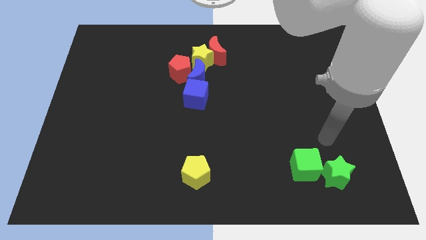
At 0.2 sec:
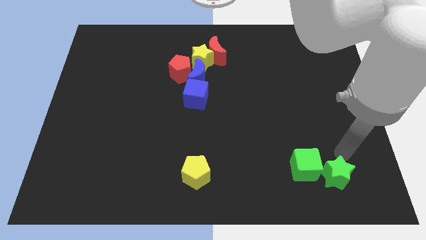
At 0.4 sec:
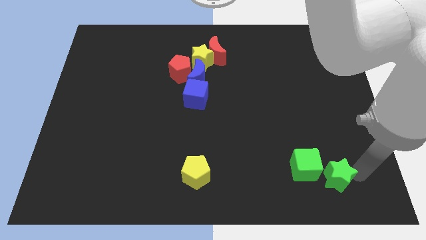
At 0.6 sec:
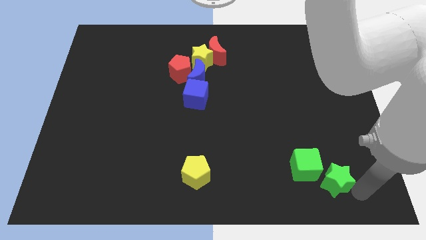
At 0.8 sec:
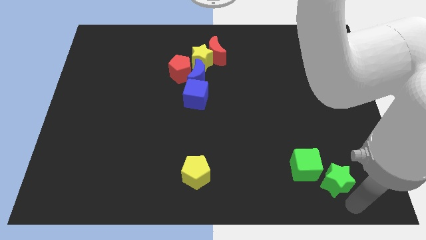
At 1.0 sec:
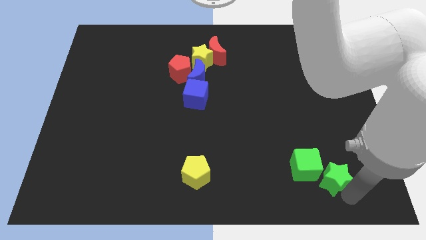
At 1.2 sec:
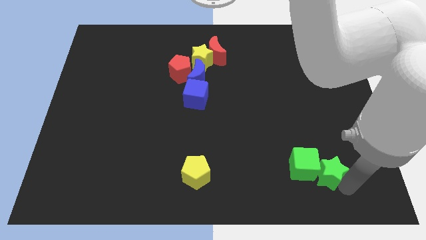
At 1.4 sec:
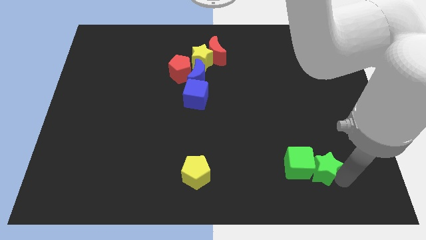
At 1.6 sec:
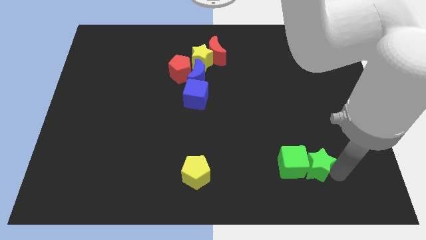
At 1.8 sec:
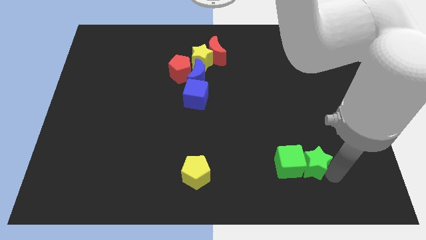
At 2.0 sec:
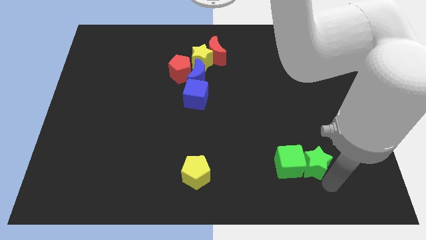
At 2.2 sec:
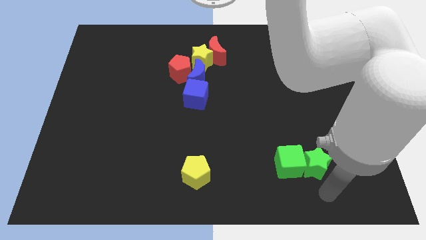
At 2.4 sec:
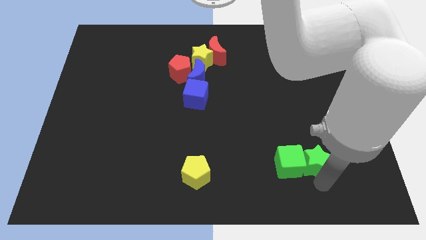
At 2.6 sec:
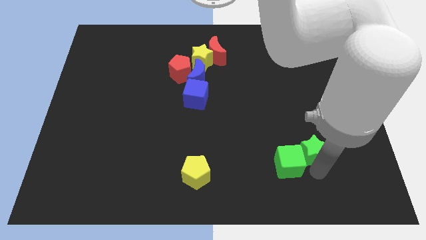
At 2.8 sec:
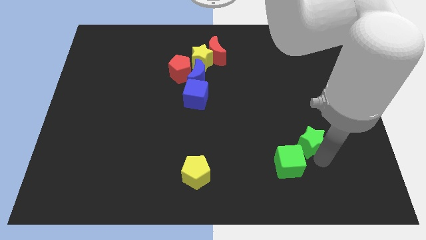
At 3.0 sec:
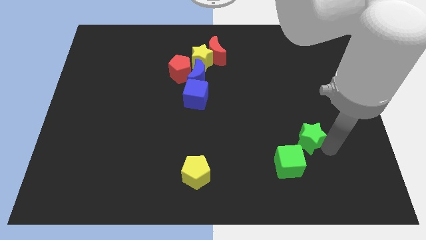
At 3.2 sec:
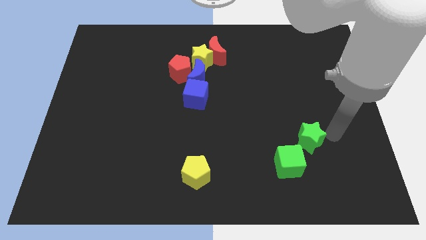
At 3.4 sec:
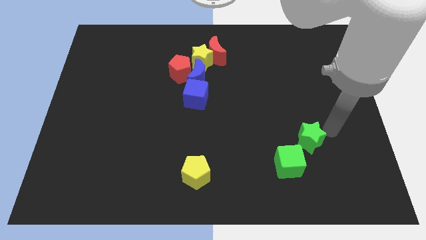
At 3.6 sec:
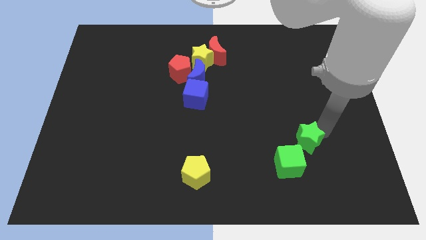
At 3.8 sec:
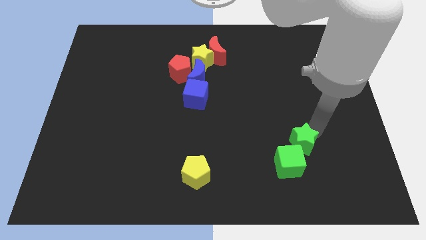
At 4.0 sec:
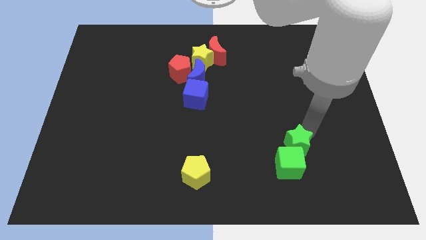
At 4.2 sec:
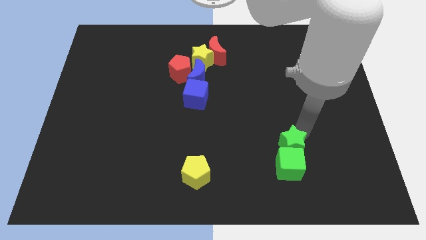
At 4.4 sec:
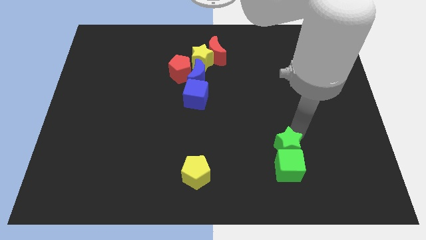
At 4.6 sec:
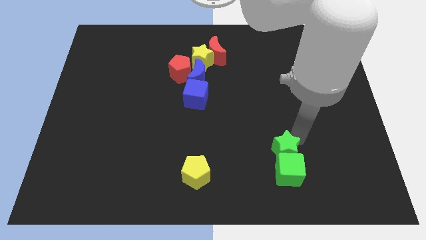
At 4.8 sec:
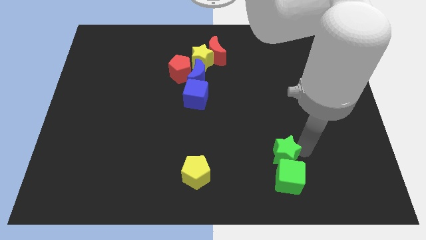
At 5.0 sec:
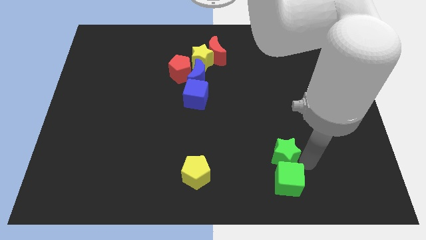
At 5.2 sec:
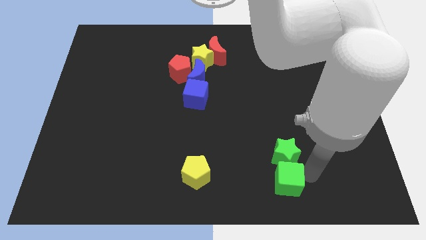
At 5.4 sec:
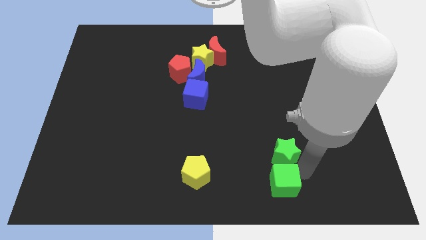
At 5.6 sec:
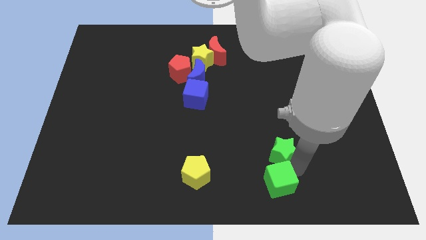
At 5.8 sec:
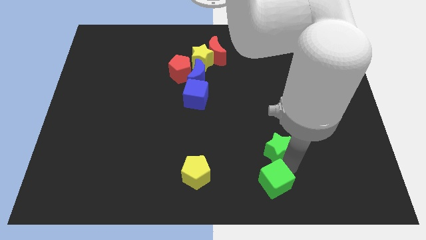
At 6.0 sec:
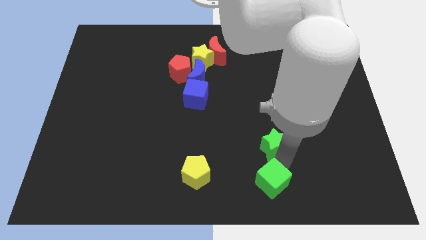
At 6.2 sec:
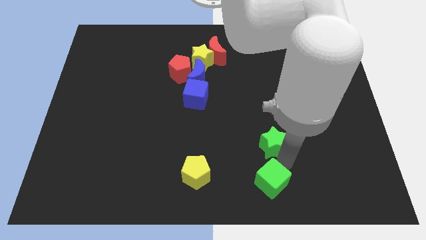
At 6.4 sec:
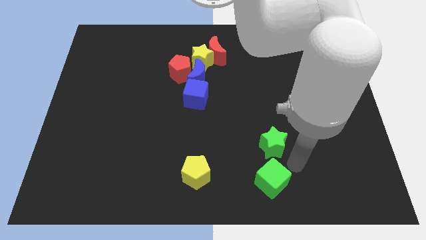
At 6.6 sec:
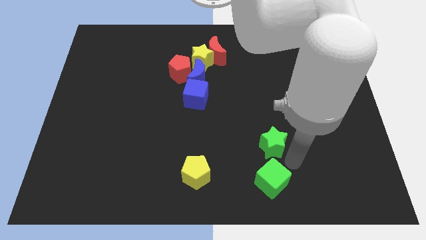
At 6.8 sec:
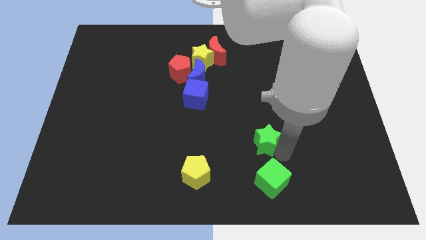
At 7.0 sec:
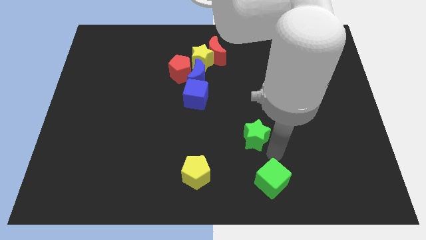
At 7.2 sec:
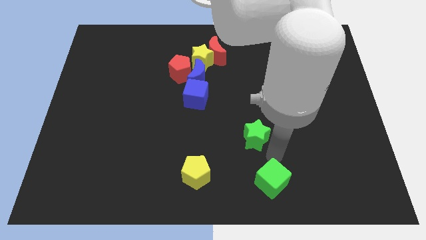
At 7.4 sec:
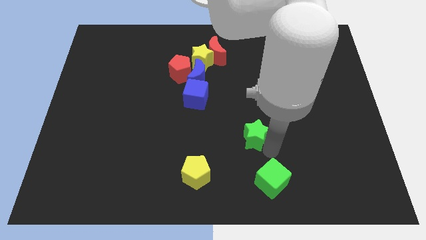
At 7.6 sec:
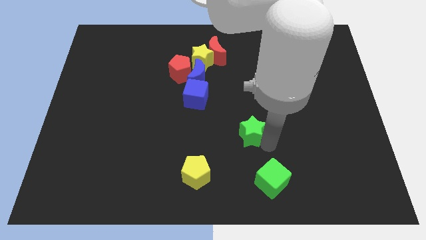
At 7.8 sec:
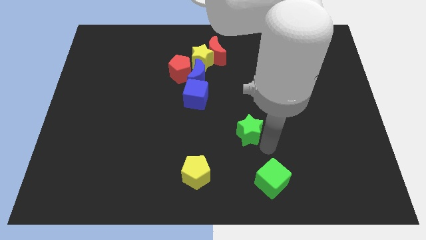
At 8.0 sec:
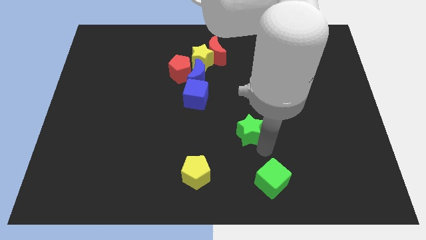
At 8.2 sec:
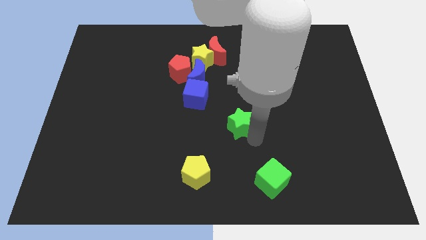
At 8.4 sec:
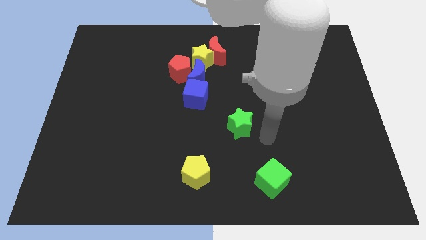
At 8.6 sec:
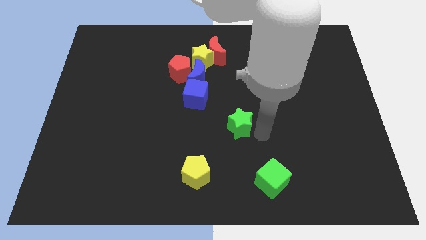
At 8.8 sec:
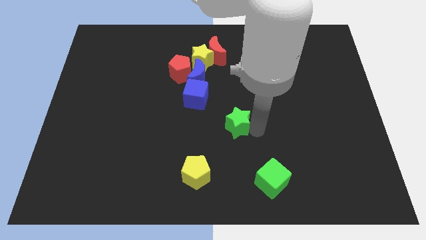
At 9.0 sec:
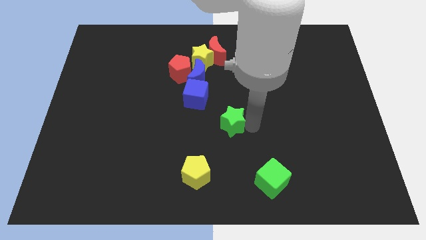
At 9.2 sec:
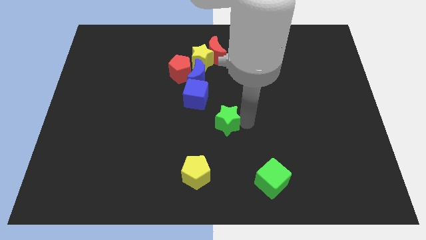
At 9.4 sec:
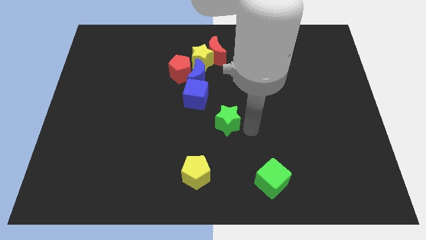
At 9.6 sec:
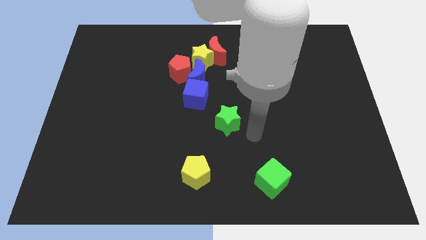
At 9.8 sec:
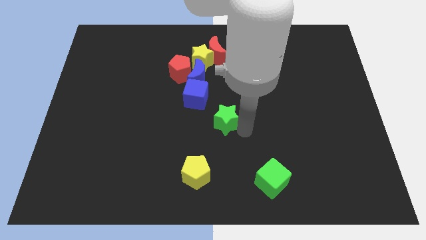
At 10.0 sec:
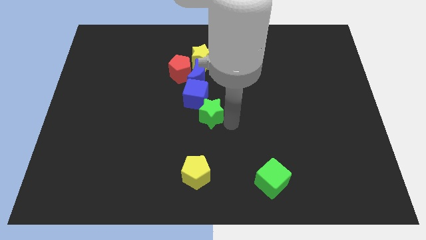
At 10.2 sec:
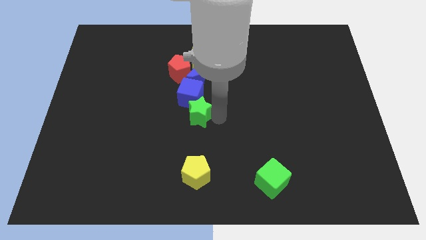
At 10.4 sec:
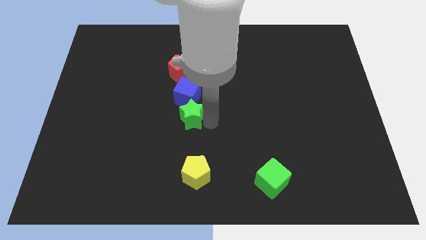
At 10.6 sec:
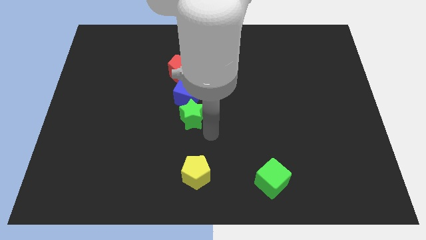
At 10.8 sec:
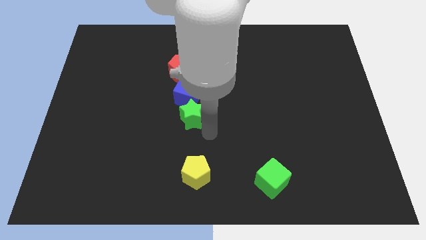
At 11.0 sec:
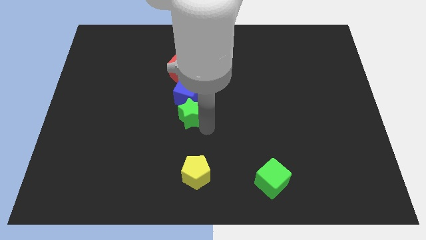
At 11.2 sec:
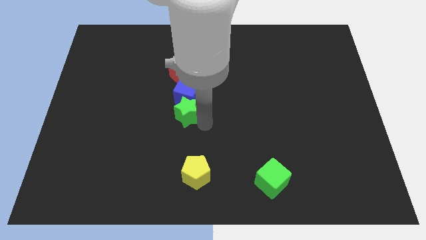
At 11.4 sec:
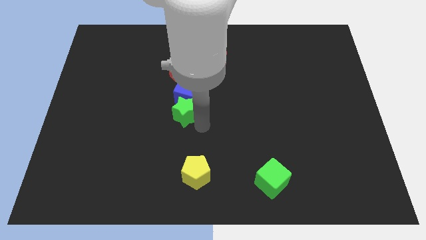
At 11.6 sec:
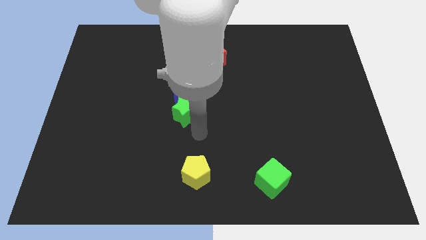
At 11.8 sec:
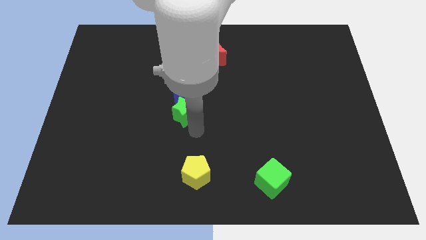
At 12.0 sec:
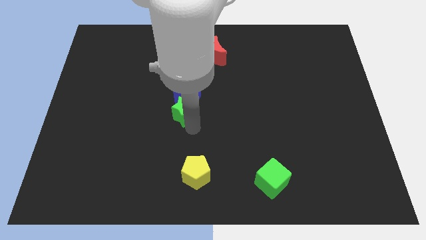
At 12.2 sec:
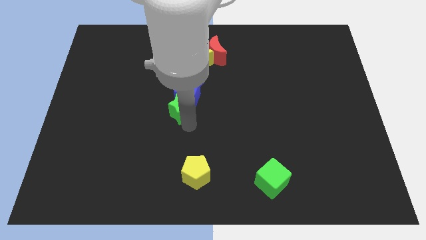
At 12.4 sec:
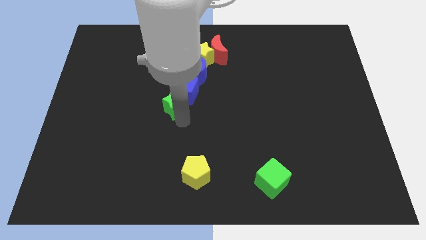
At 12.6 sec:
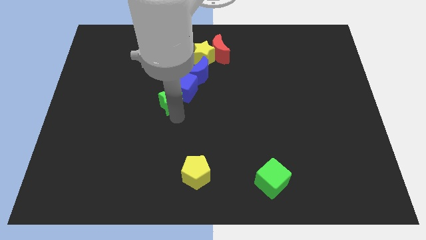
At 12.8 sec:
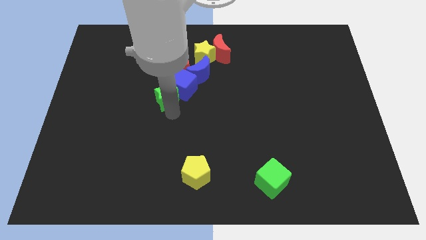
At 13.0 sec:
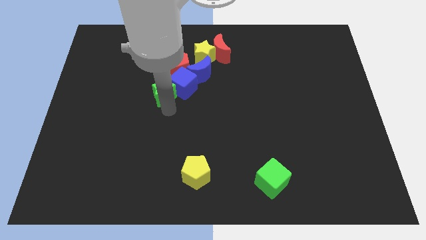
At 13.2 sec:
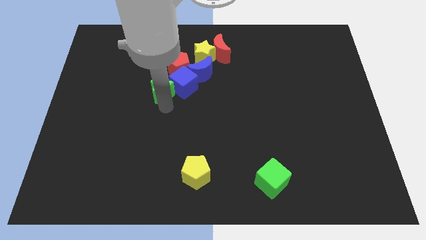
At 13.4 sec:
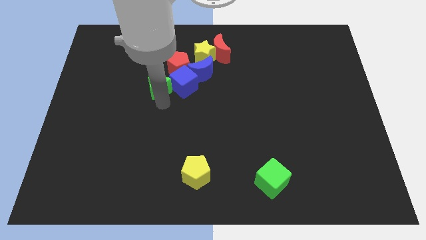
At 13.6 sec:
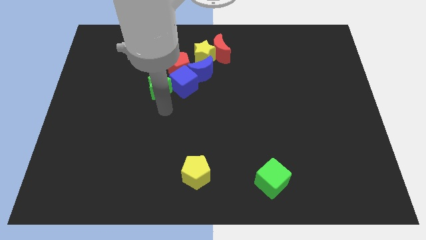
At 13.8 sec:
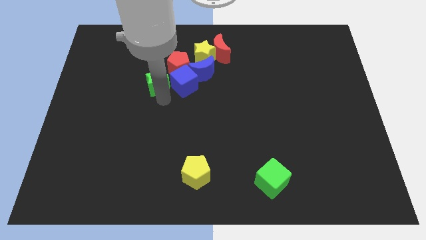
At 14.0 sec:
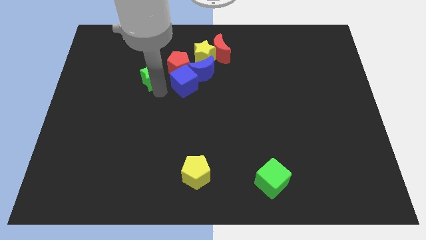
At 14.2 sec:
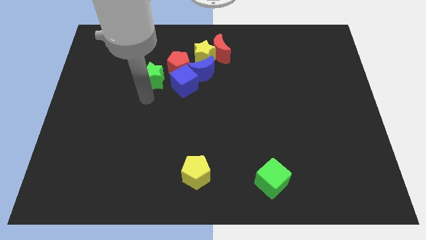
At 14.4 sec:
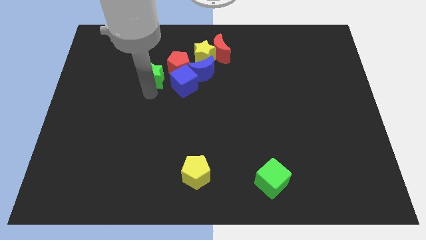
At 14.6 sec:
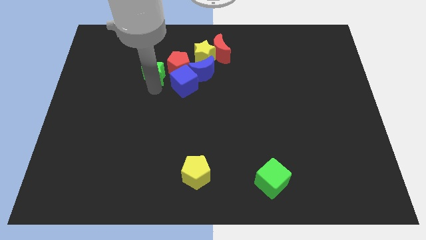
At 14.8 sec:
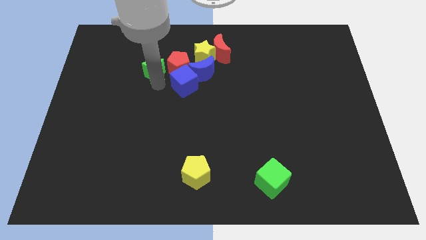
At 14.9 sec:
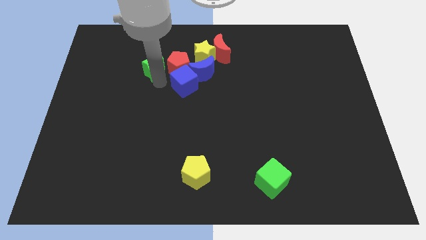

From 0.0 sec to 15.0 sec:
put the green star to the left of the yellow star

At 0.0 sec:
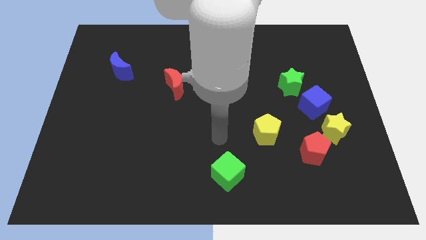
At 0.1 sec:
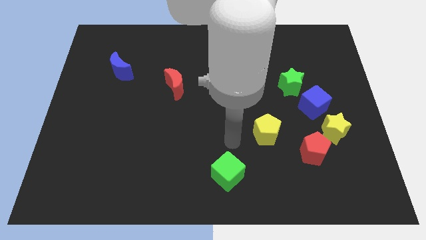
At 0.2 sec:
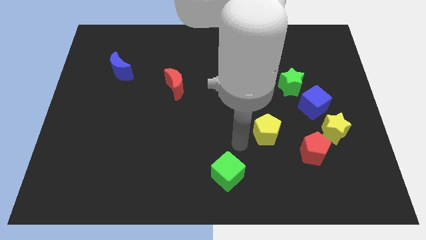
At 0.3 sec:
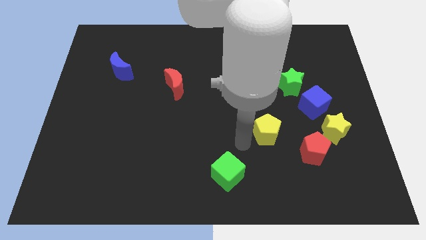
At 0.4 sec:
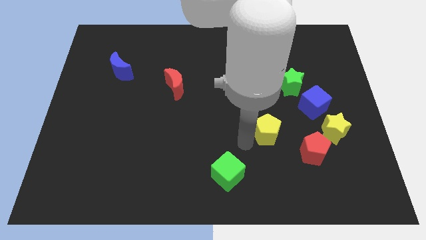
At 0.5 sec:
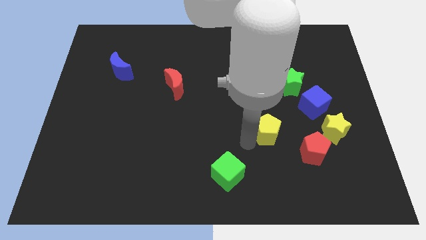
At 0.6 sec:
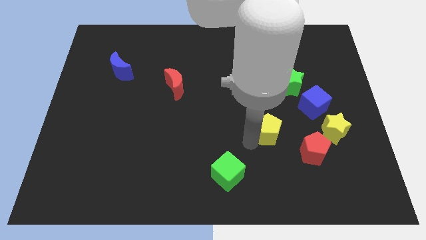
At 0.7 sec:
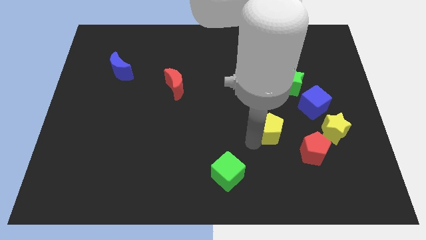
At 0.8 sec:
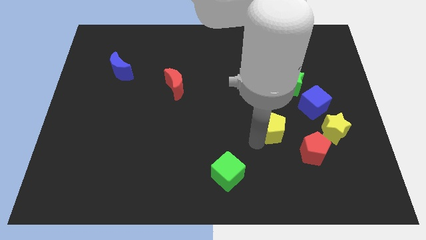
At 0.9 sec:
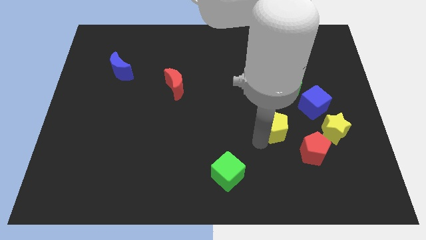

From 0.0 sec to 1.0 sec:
slide the yellow pentagon to the bottom left of the blue cube
